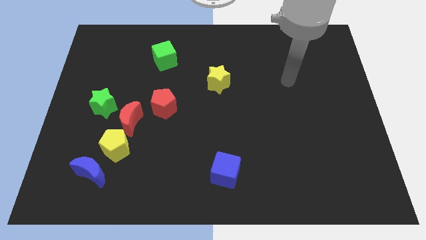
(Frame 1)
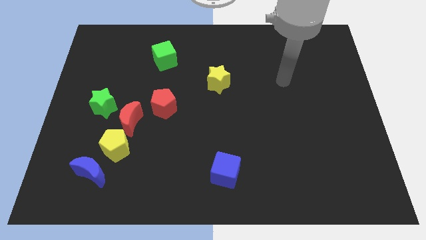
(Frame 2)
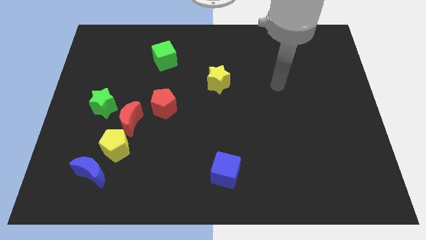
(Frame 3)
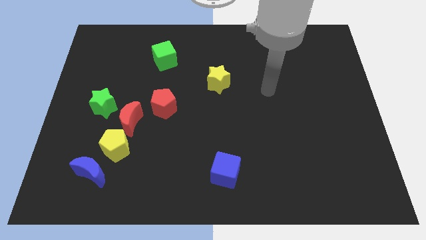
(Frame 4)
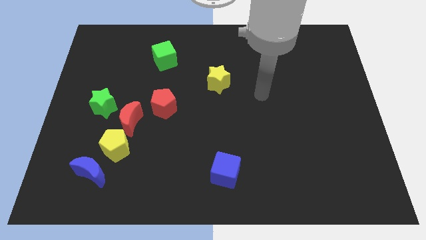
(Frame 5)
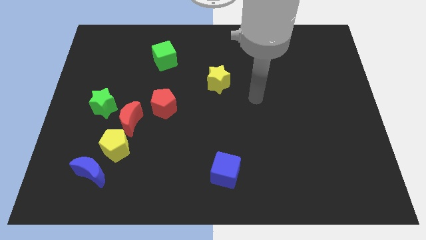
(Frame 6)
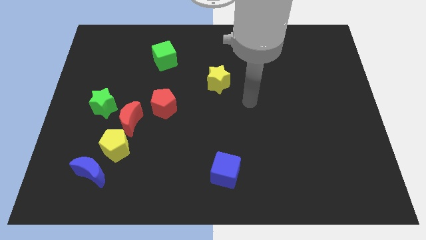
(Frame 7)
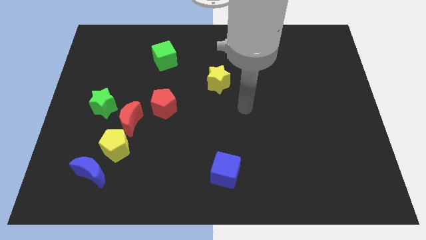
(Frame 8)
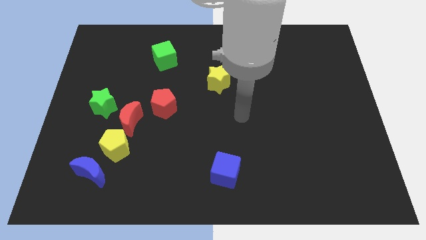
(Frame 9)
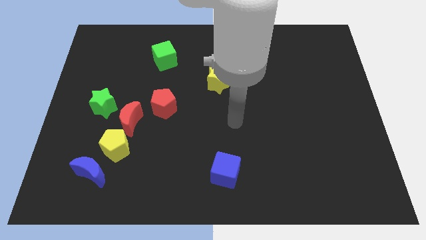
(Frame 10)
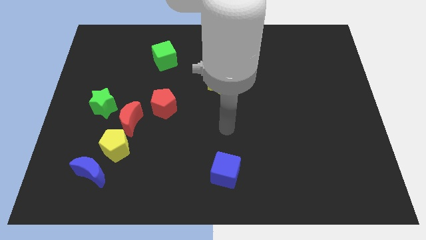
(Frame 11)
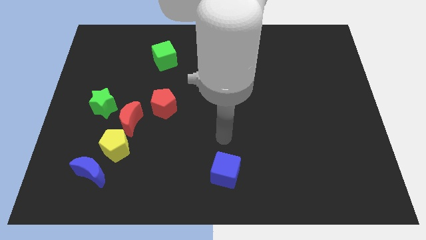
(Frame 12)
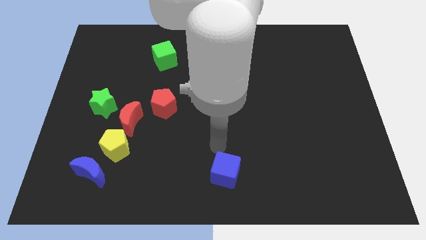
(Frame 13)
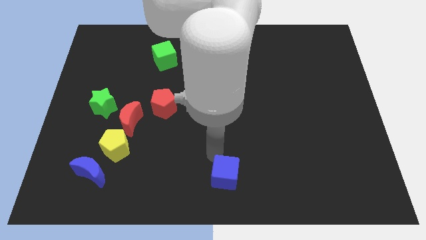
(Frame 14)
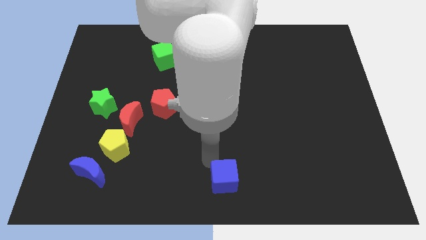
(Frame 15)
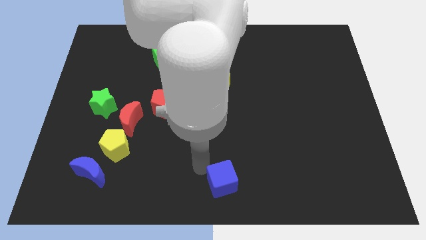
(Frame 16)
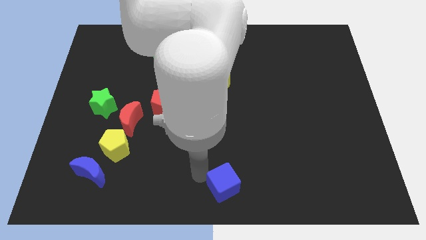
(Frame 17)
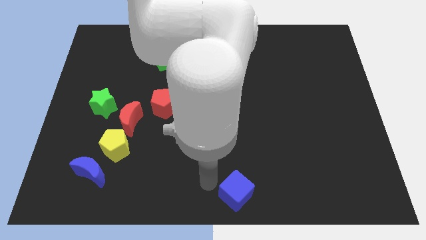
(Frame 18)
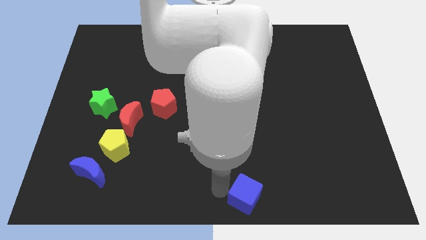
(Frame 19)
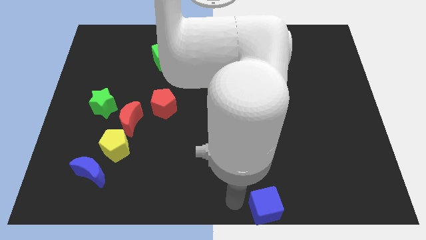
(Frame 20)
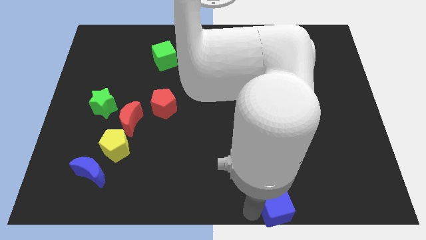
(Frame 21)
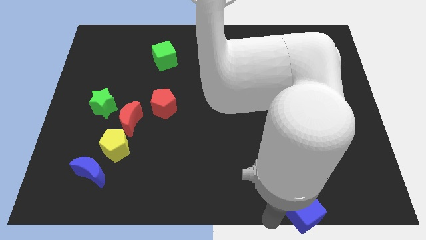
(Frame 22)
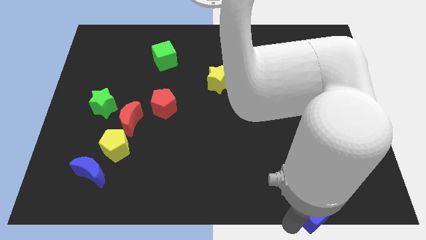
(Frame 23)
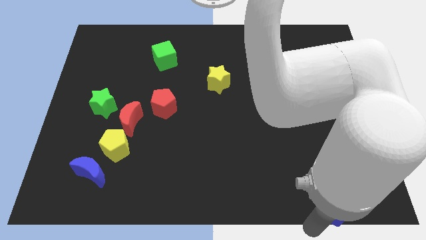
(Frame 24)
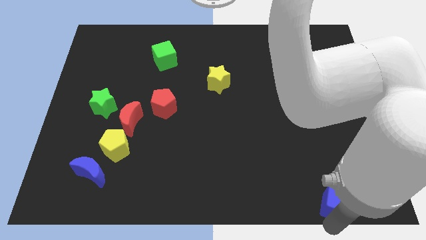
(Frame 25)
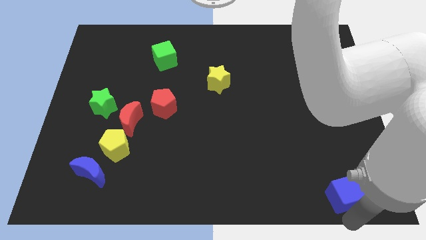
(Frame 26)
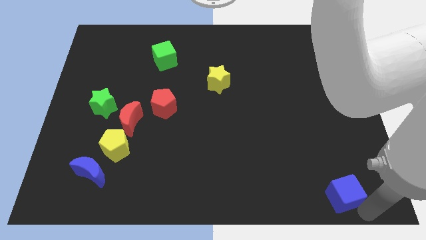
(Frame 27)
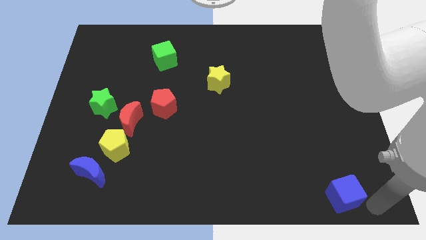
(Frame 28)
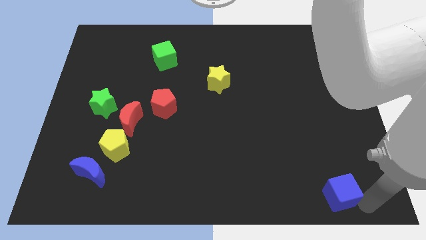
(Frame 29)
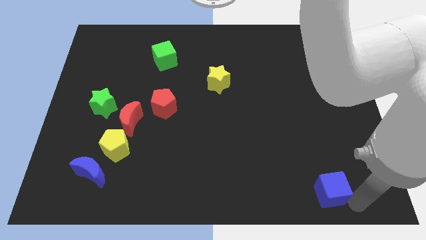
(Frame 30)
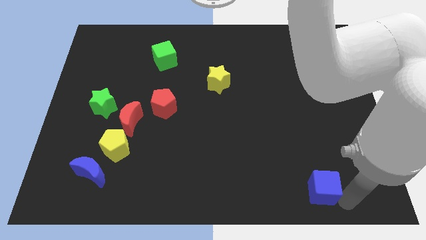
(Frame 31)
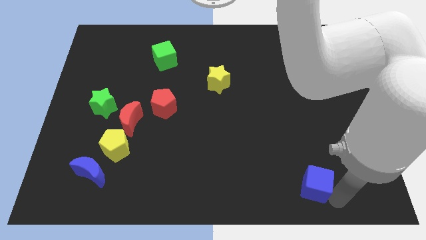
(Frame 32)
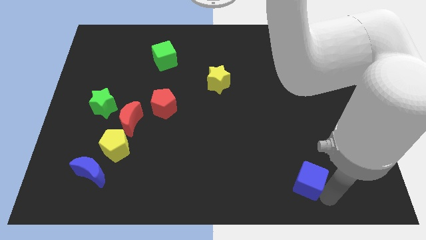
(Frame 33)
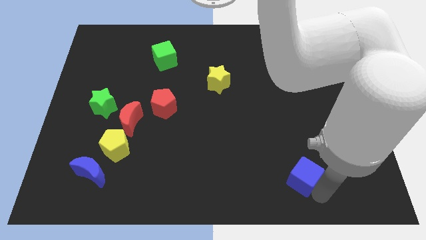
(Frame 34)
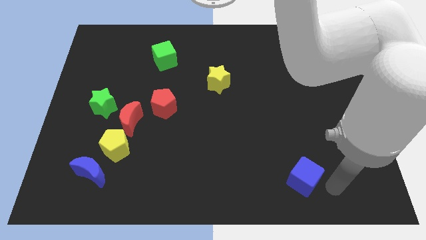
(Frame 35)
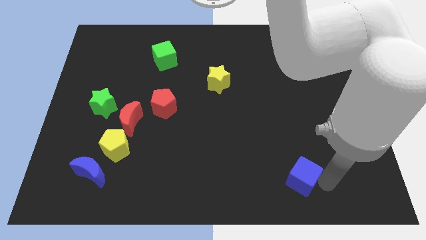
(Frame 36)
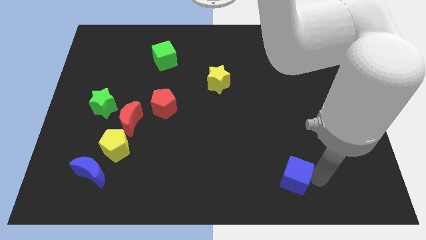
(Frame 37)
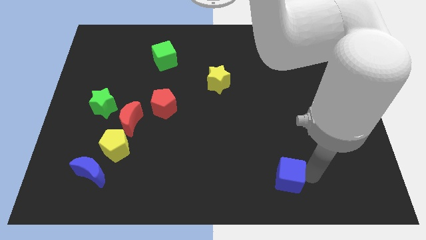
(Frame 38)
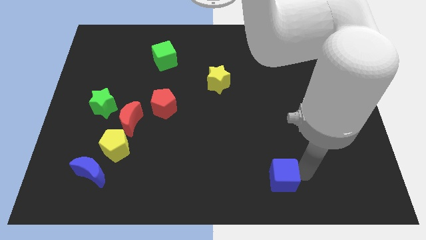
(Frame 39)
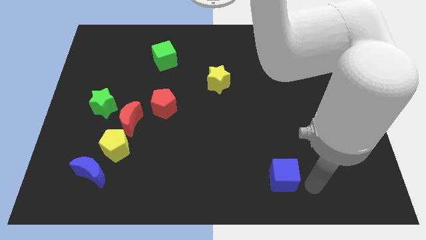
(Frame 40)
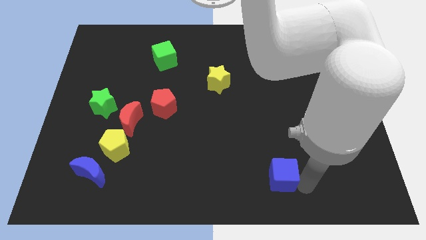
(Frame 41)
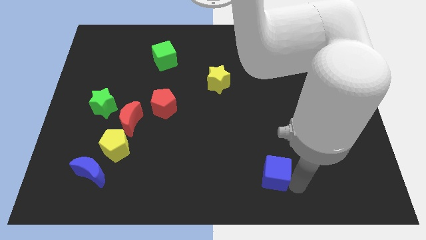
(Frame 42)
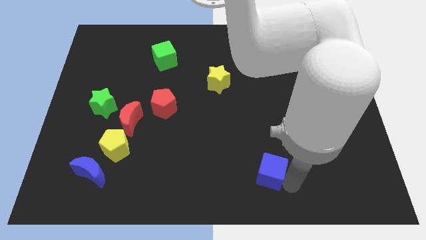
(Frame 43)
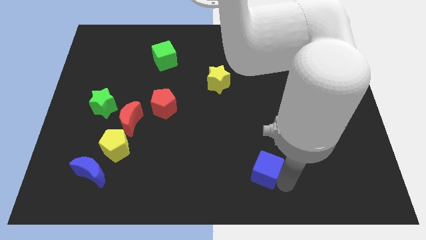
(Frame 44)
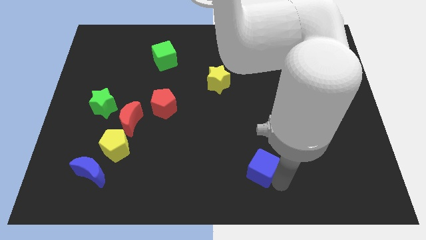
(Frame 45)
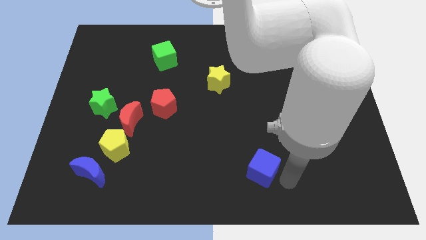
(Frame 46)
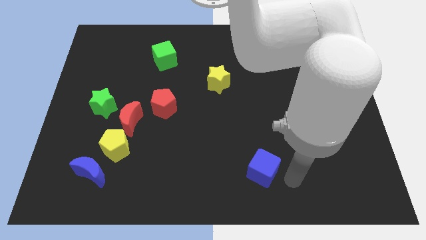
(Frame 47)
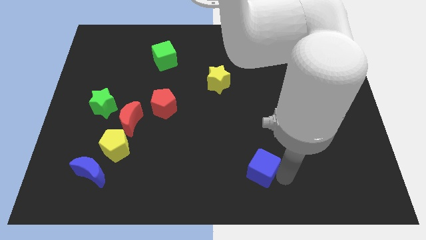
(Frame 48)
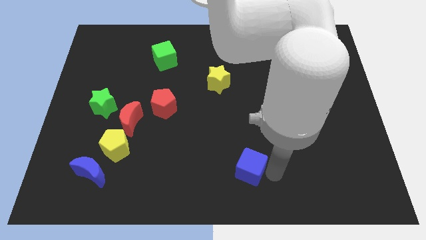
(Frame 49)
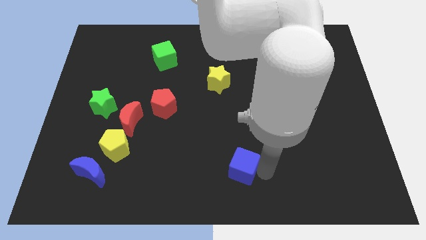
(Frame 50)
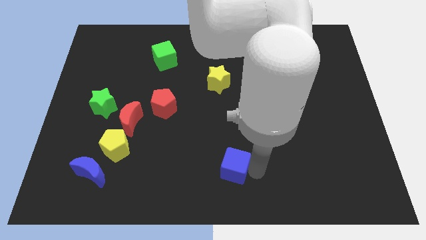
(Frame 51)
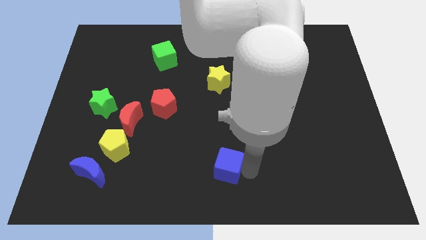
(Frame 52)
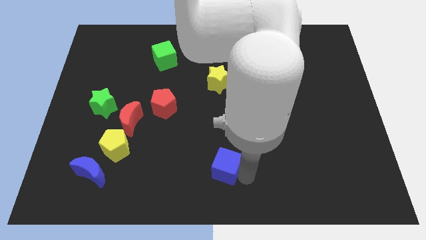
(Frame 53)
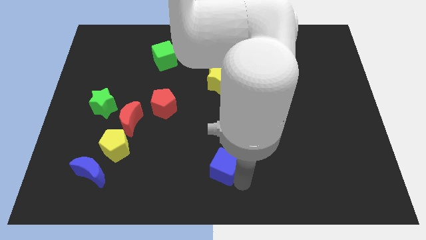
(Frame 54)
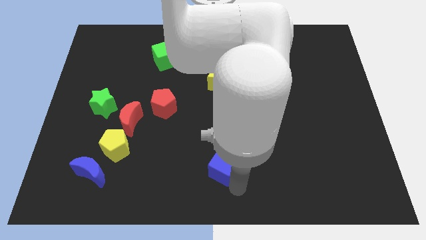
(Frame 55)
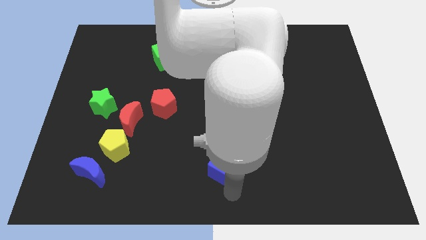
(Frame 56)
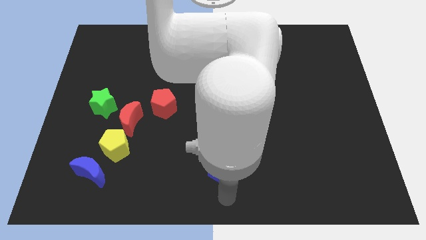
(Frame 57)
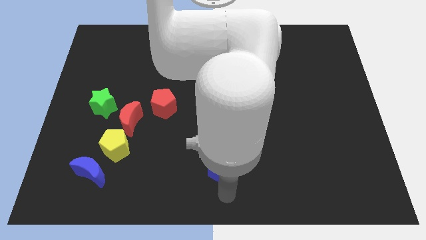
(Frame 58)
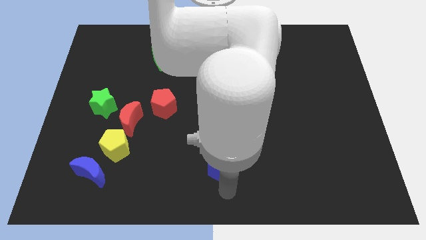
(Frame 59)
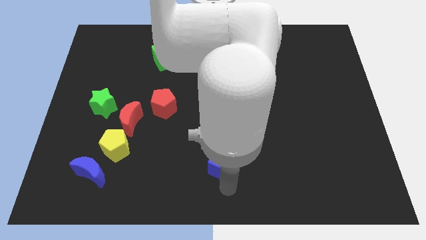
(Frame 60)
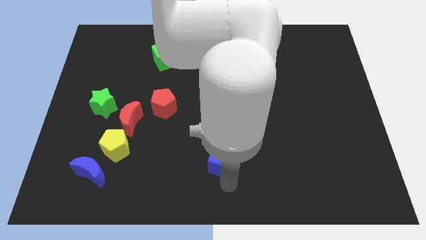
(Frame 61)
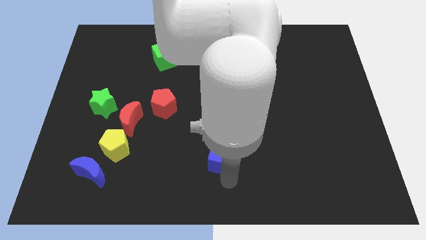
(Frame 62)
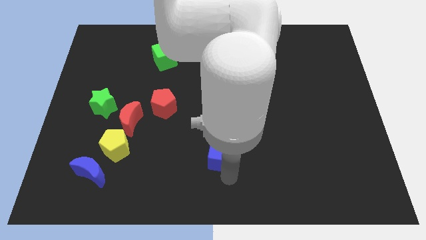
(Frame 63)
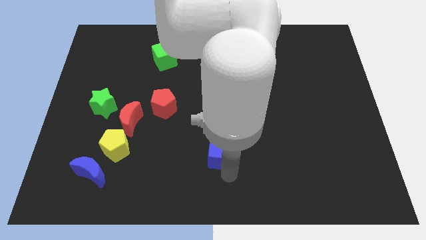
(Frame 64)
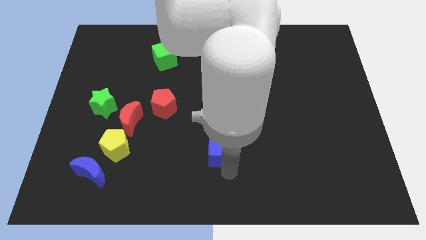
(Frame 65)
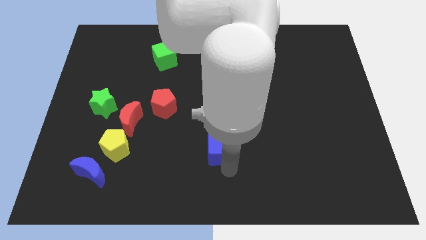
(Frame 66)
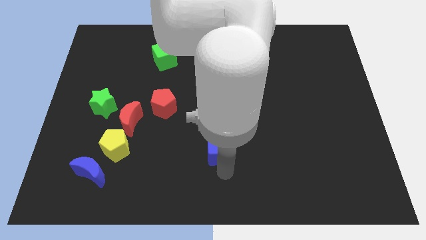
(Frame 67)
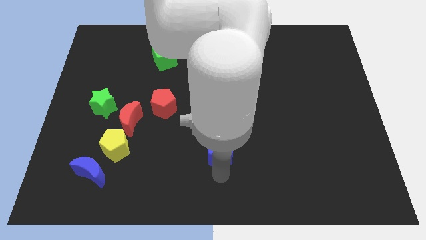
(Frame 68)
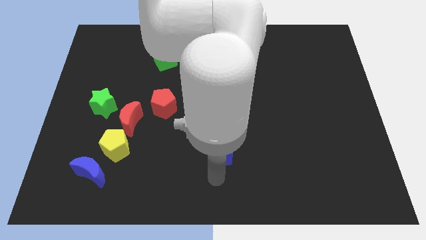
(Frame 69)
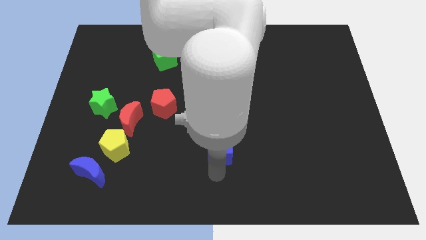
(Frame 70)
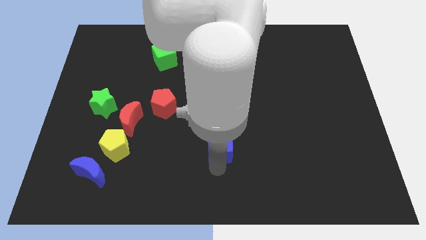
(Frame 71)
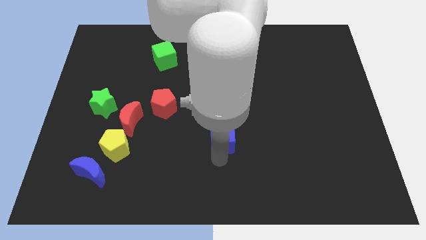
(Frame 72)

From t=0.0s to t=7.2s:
slide the blue cube slightly upwards

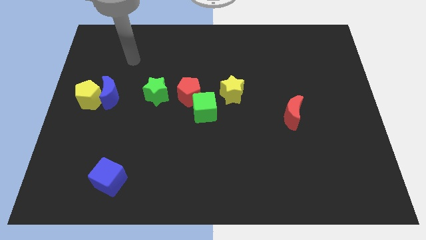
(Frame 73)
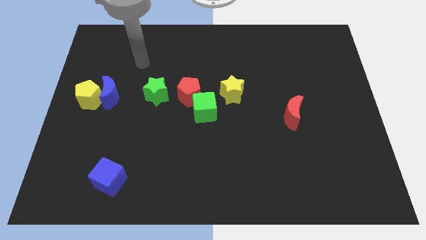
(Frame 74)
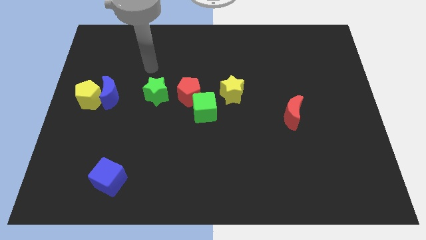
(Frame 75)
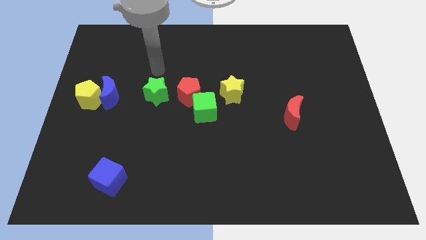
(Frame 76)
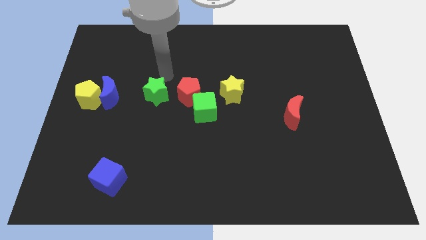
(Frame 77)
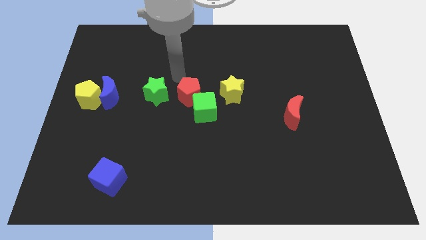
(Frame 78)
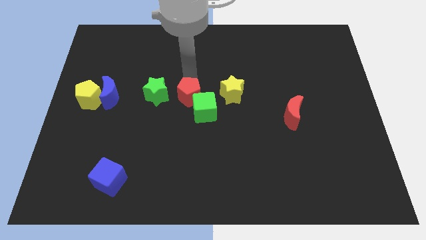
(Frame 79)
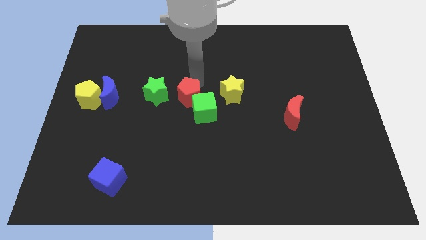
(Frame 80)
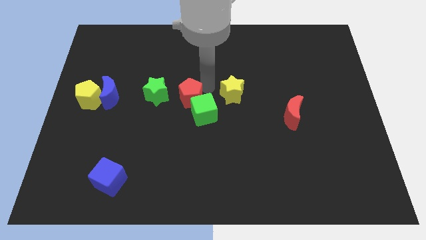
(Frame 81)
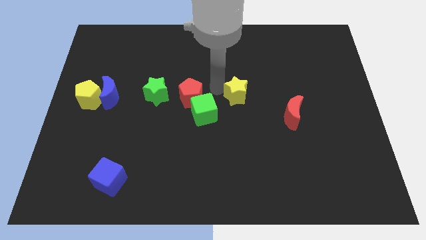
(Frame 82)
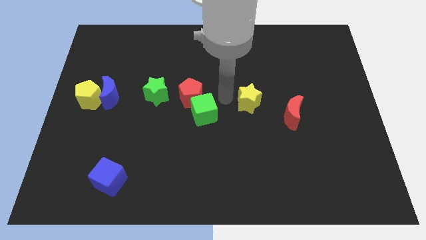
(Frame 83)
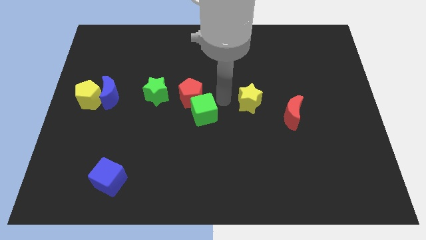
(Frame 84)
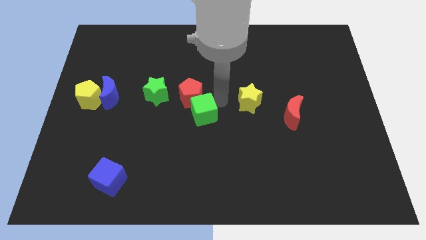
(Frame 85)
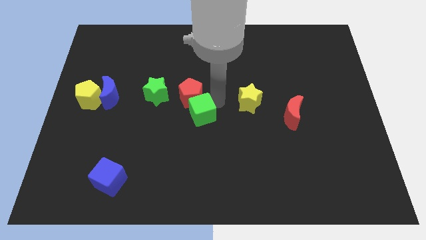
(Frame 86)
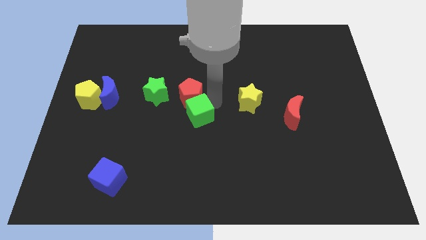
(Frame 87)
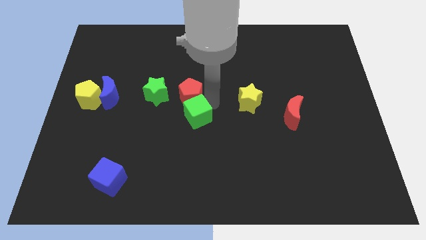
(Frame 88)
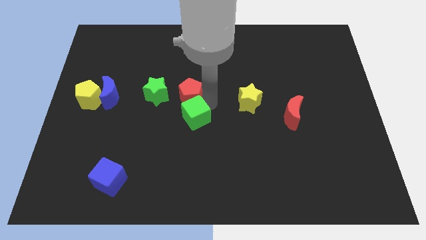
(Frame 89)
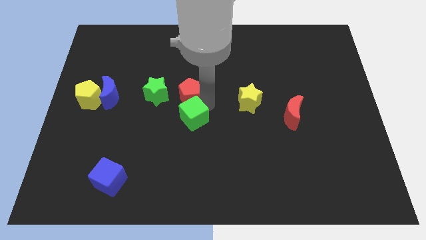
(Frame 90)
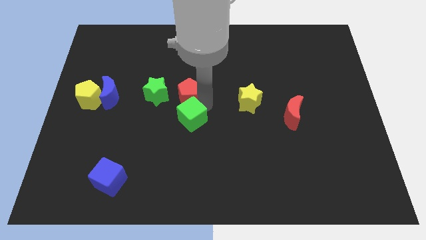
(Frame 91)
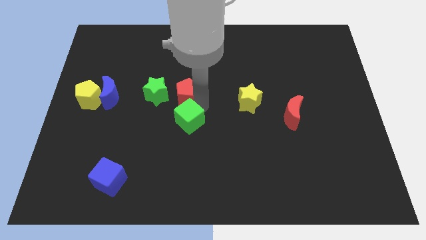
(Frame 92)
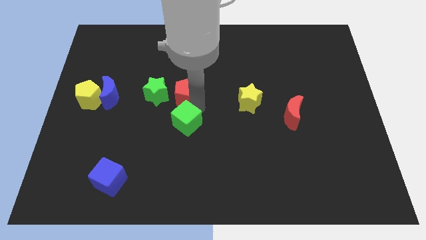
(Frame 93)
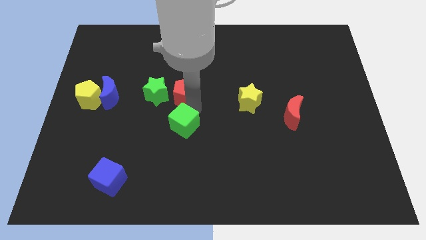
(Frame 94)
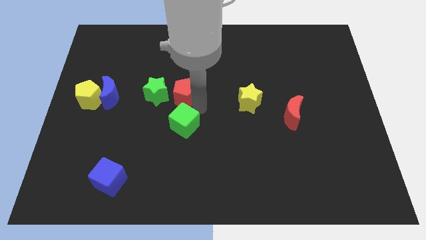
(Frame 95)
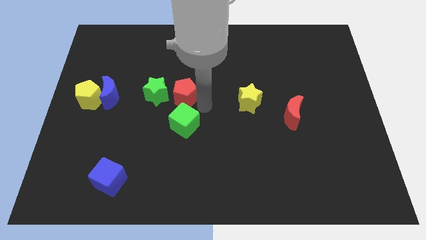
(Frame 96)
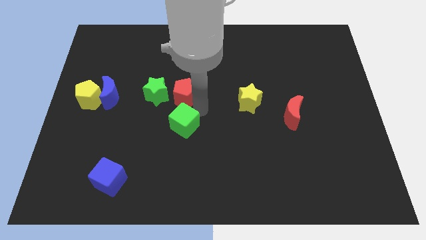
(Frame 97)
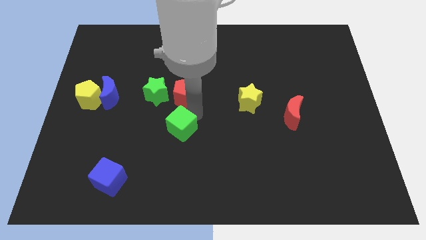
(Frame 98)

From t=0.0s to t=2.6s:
move the green cube downwards and then left a little
